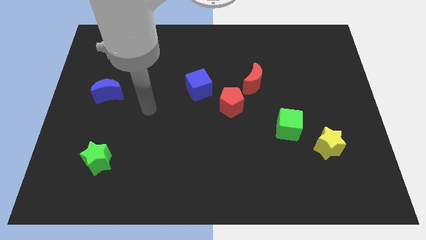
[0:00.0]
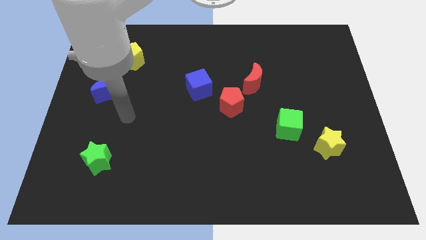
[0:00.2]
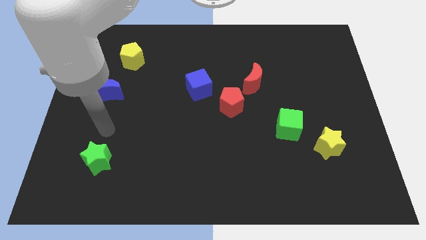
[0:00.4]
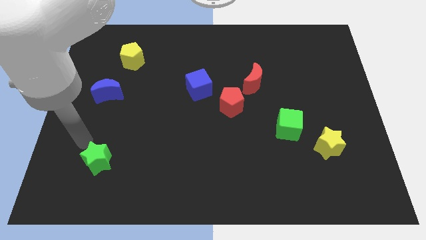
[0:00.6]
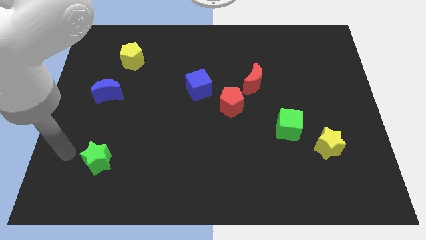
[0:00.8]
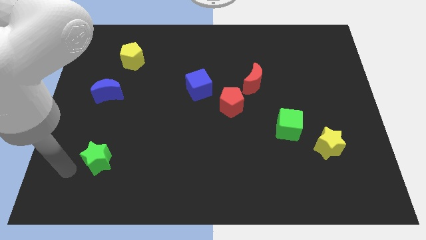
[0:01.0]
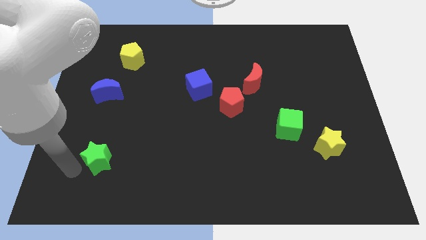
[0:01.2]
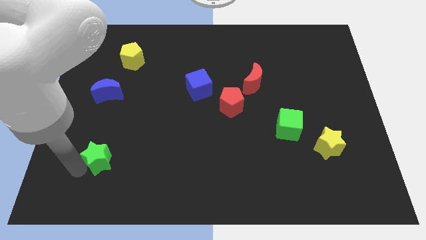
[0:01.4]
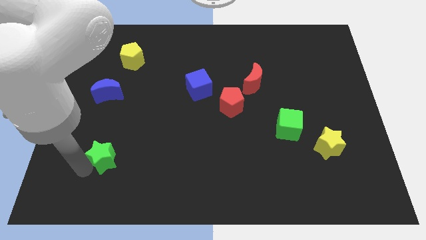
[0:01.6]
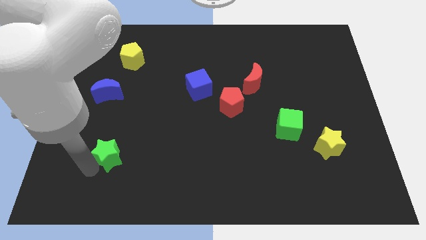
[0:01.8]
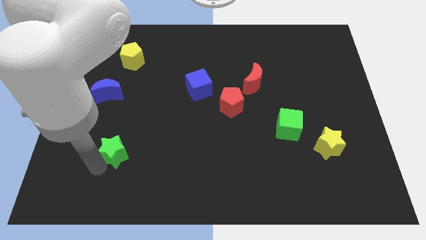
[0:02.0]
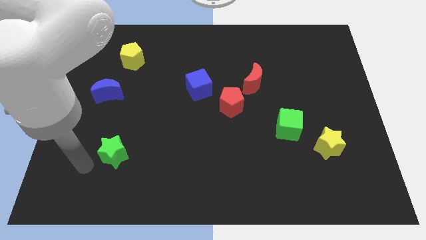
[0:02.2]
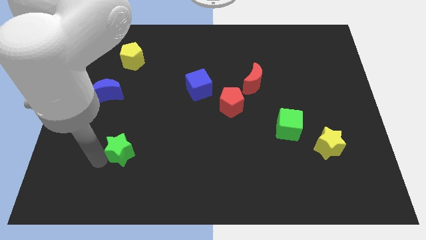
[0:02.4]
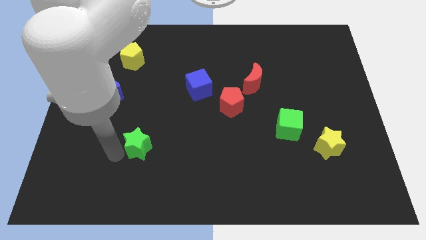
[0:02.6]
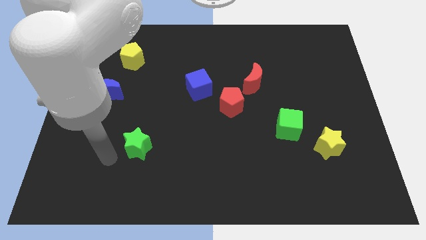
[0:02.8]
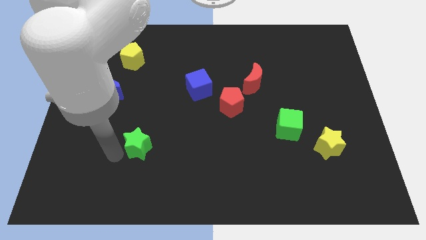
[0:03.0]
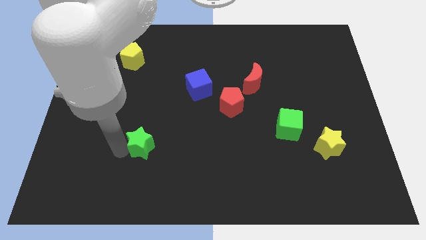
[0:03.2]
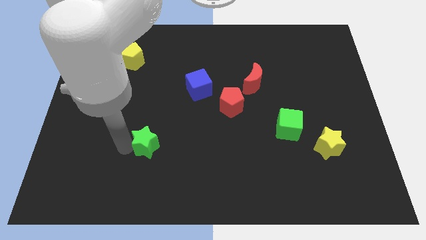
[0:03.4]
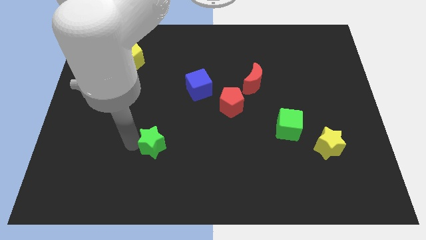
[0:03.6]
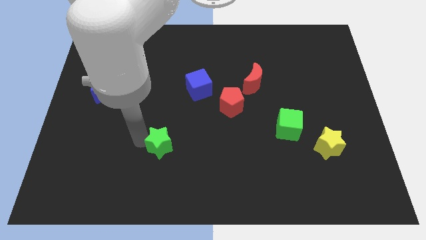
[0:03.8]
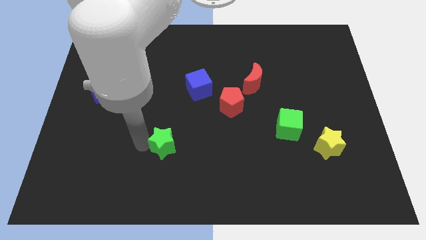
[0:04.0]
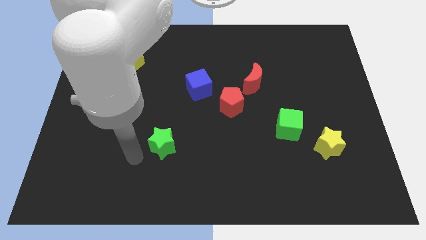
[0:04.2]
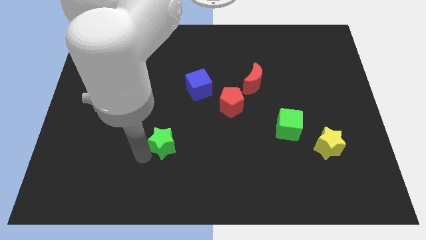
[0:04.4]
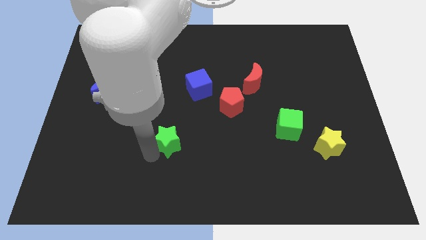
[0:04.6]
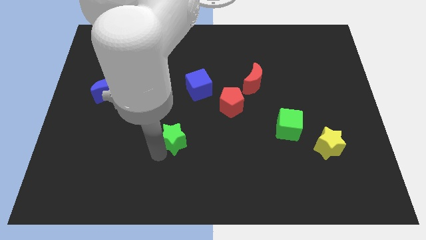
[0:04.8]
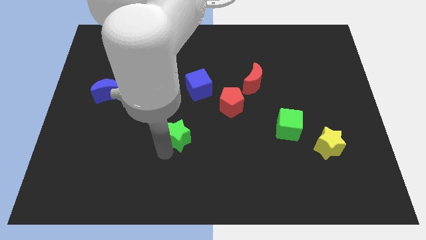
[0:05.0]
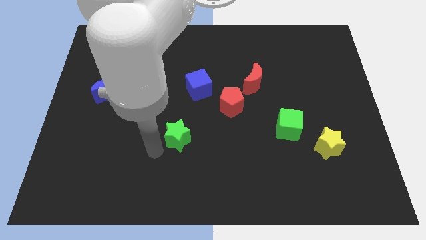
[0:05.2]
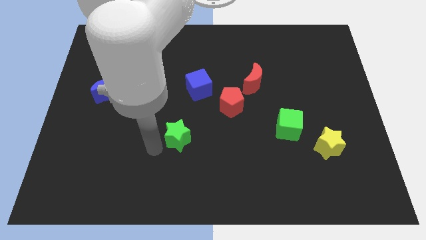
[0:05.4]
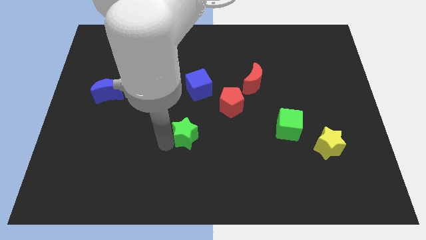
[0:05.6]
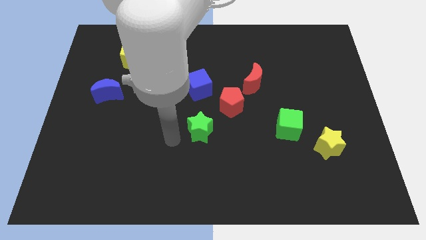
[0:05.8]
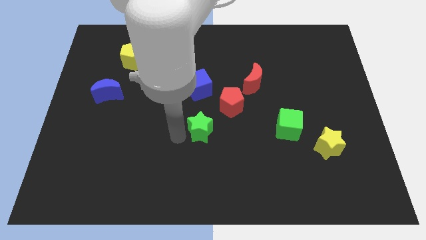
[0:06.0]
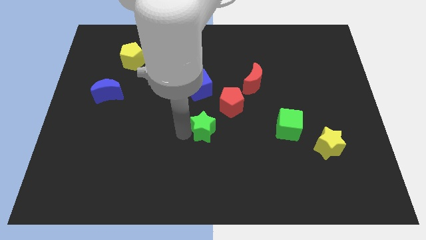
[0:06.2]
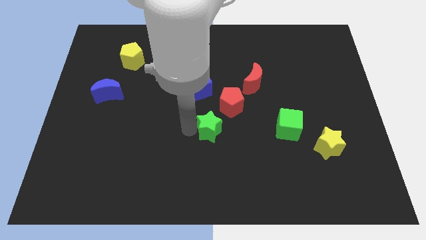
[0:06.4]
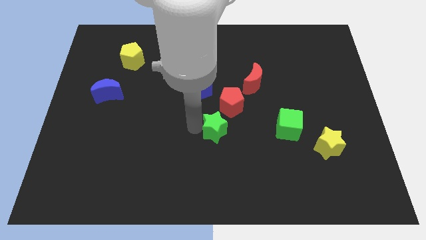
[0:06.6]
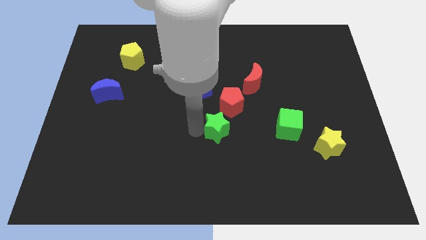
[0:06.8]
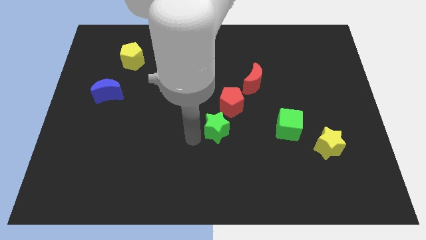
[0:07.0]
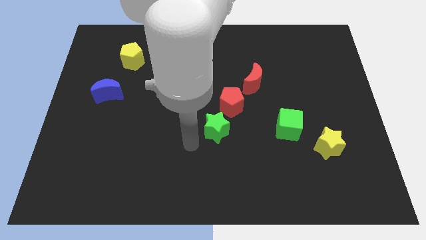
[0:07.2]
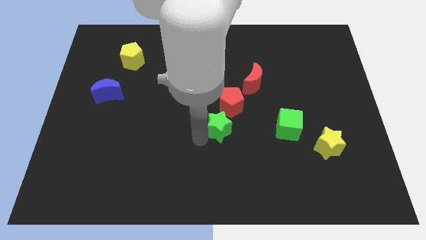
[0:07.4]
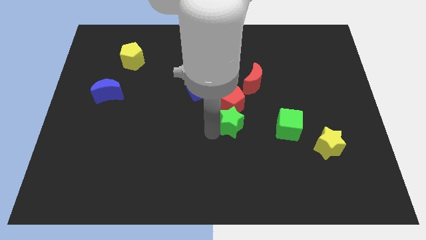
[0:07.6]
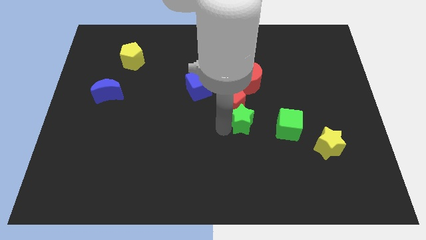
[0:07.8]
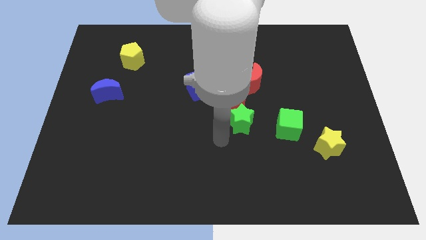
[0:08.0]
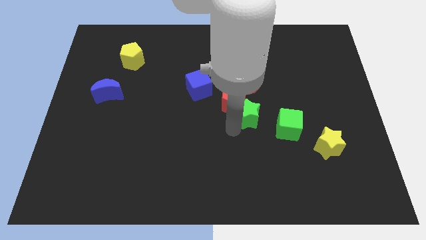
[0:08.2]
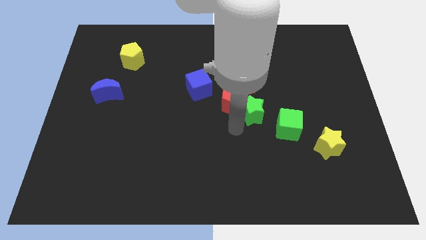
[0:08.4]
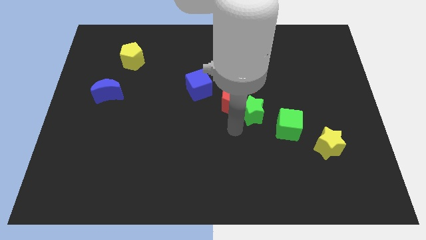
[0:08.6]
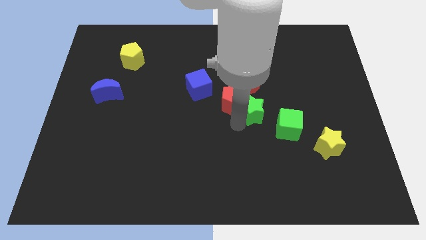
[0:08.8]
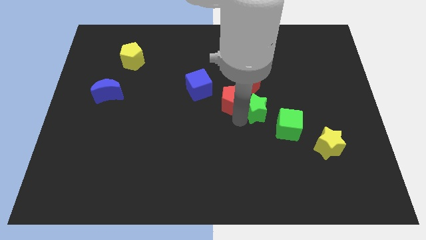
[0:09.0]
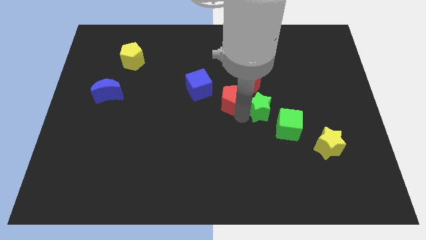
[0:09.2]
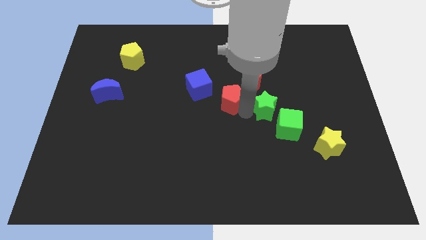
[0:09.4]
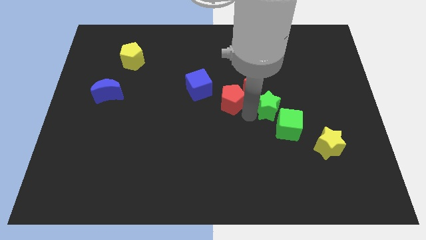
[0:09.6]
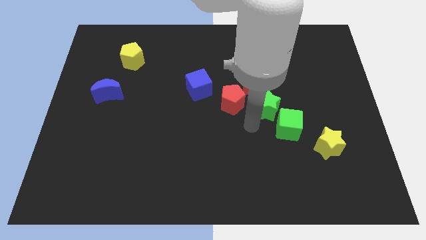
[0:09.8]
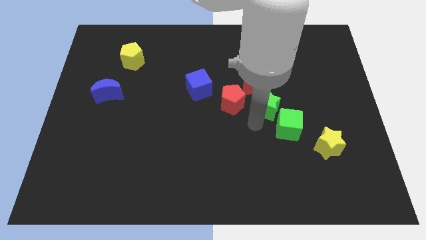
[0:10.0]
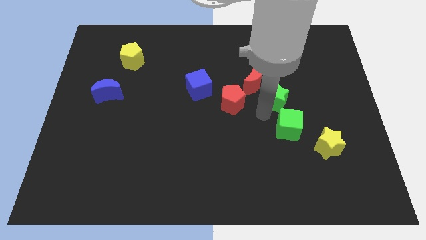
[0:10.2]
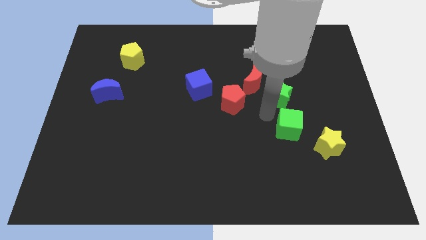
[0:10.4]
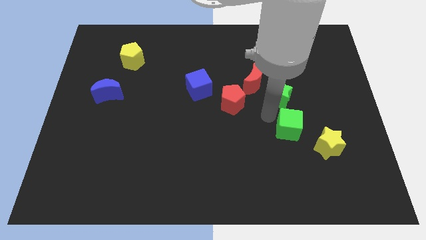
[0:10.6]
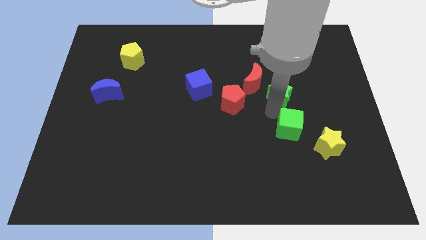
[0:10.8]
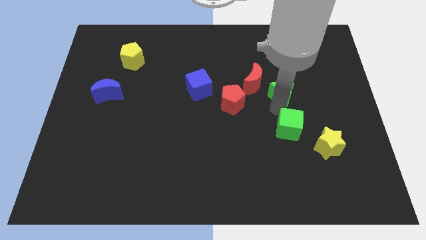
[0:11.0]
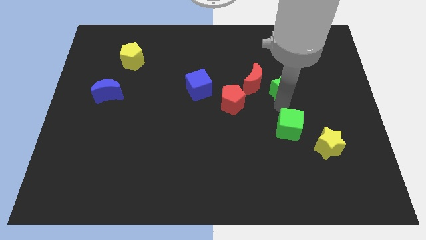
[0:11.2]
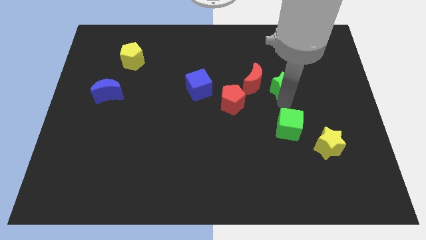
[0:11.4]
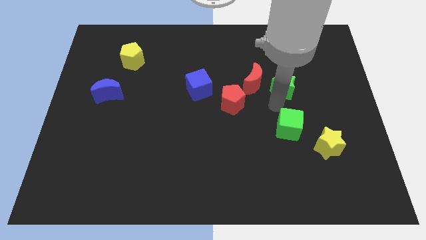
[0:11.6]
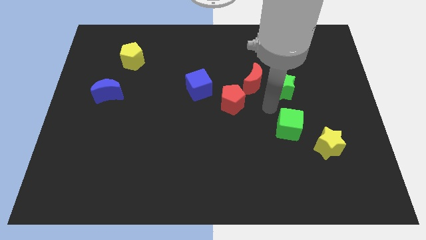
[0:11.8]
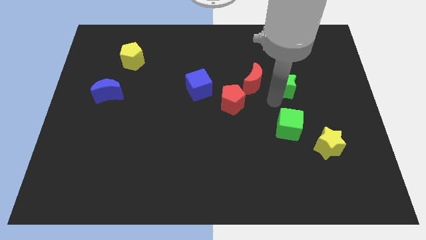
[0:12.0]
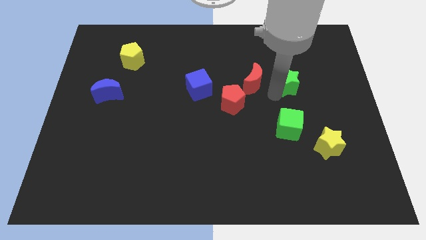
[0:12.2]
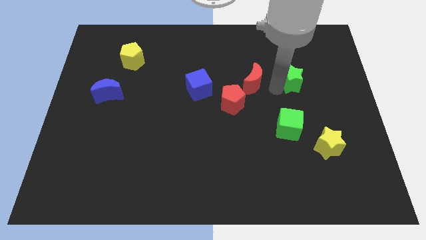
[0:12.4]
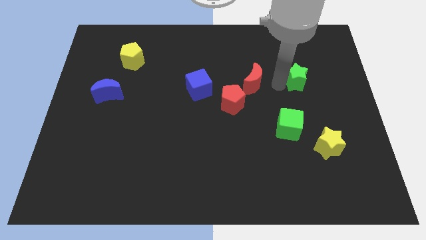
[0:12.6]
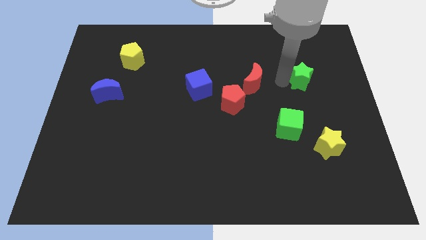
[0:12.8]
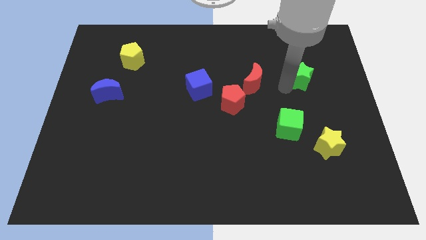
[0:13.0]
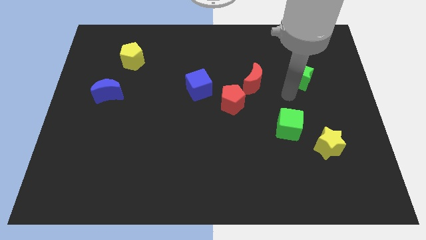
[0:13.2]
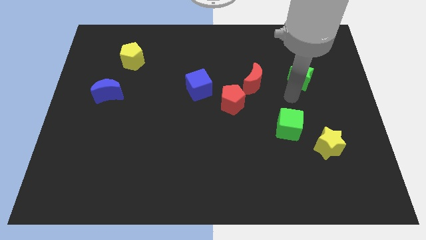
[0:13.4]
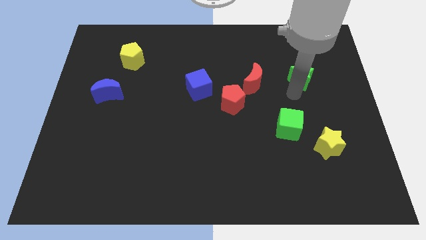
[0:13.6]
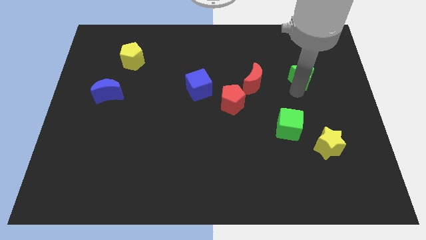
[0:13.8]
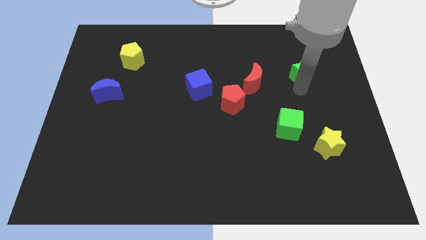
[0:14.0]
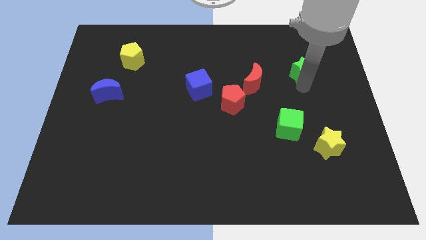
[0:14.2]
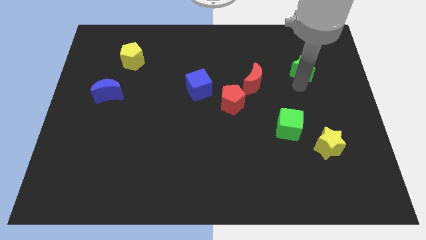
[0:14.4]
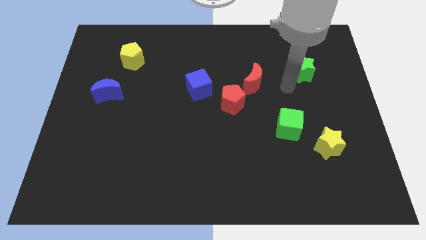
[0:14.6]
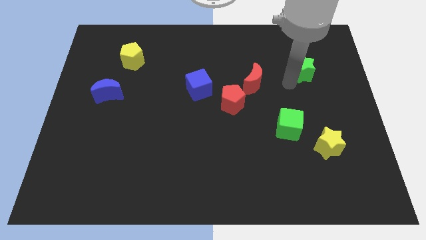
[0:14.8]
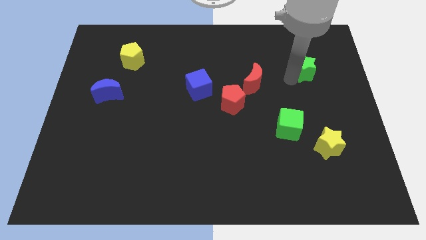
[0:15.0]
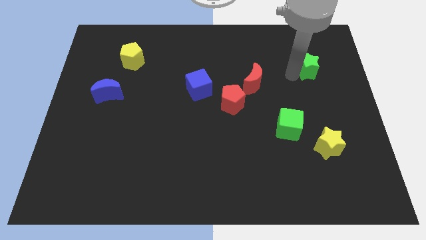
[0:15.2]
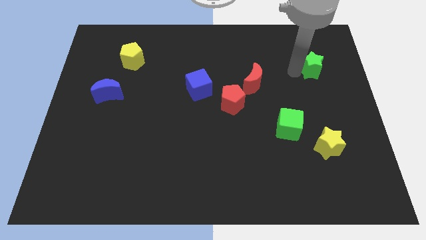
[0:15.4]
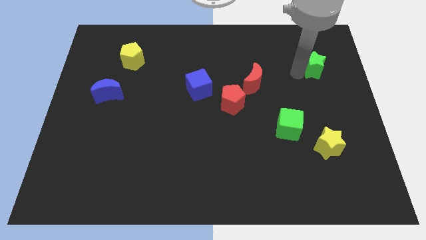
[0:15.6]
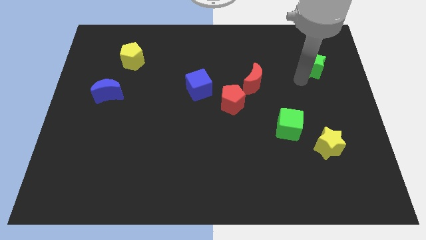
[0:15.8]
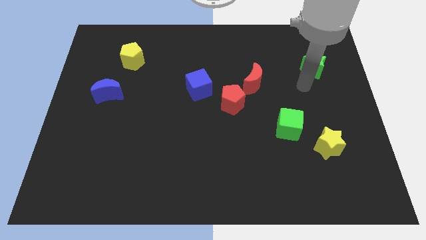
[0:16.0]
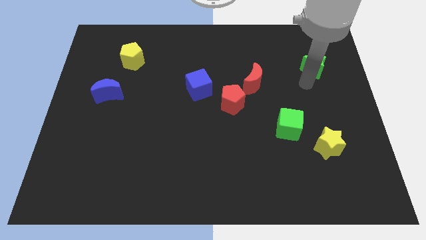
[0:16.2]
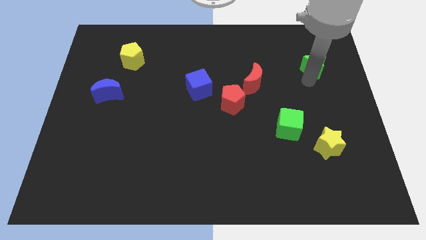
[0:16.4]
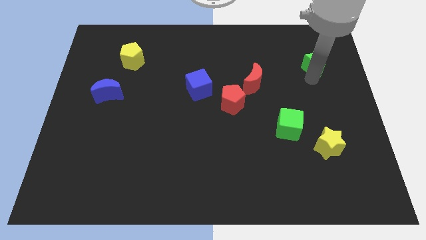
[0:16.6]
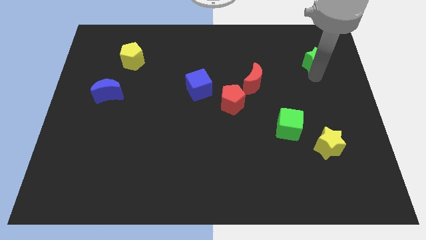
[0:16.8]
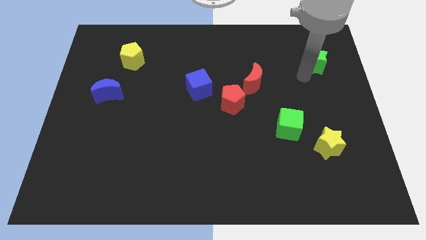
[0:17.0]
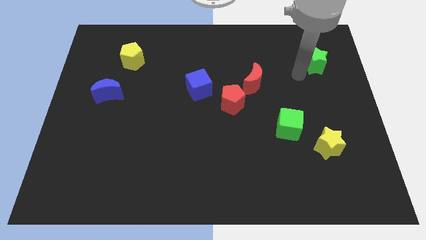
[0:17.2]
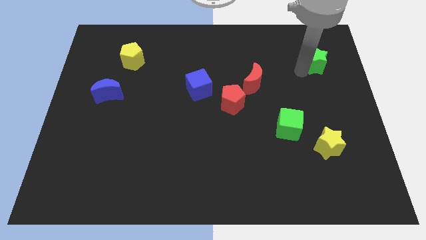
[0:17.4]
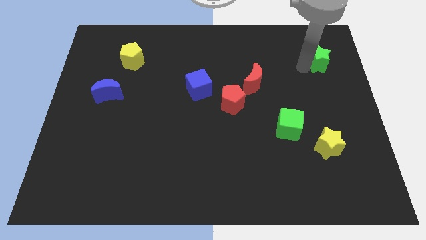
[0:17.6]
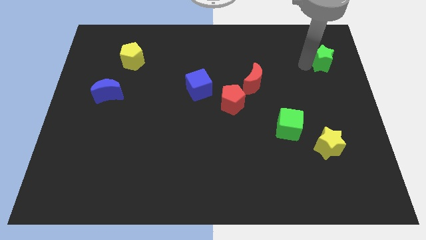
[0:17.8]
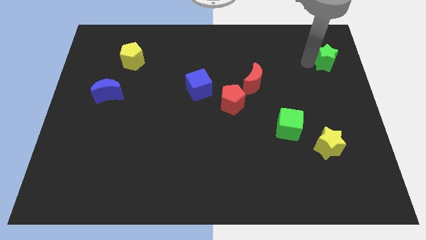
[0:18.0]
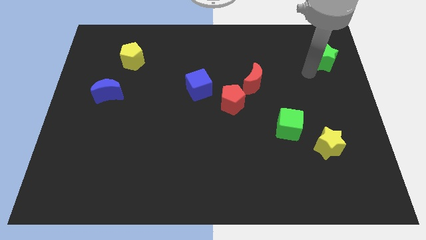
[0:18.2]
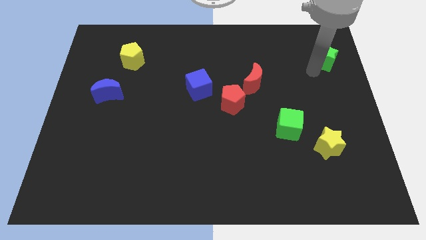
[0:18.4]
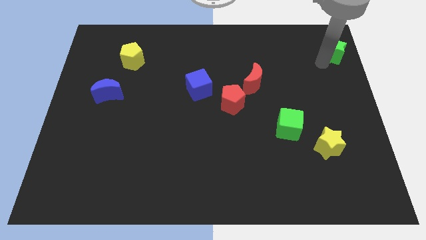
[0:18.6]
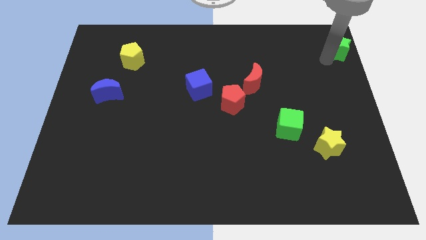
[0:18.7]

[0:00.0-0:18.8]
push the green star to the upper right corner
